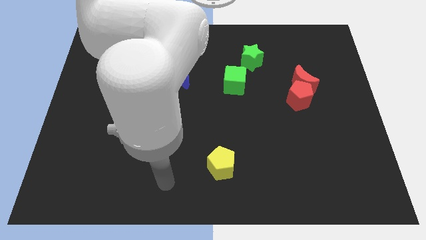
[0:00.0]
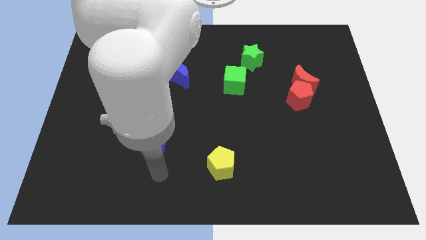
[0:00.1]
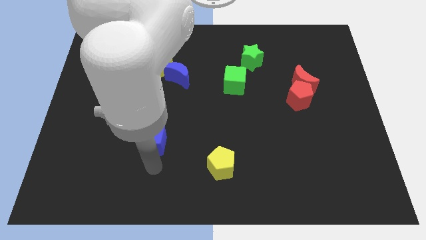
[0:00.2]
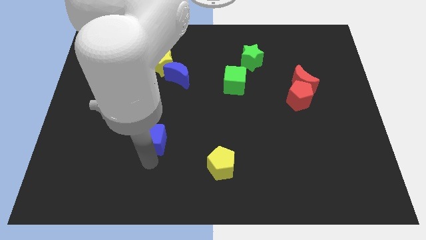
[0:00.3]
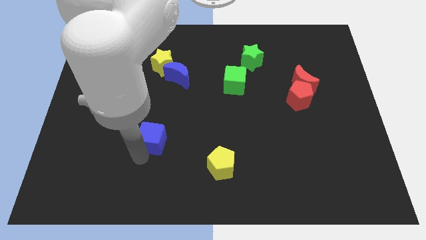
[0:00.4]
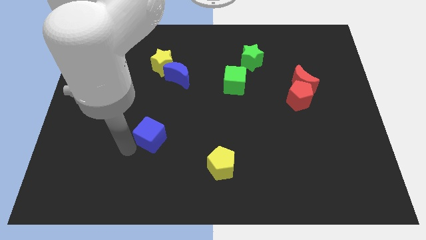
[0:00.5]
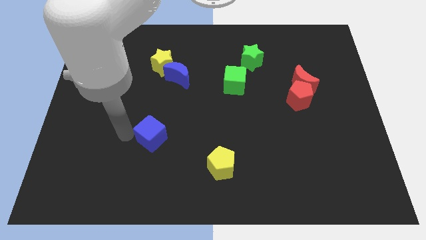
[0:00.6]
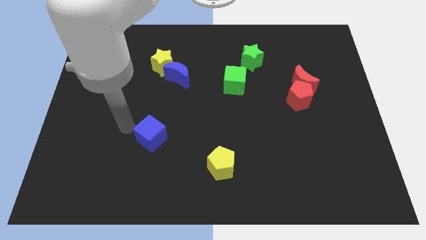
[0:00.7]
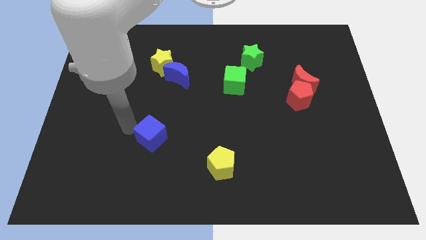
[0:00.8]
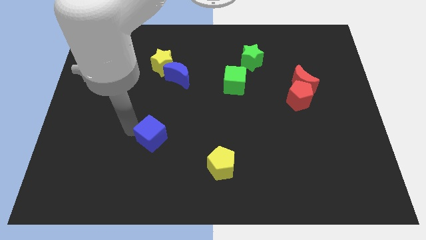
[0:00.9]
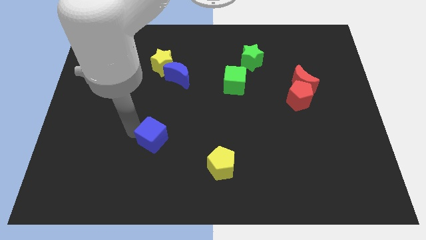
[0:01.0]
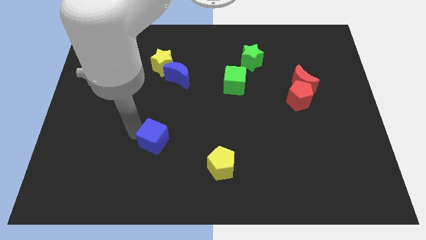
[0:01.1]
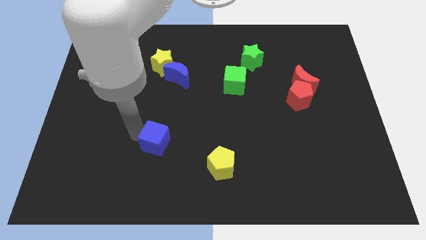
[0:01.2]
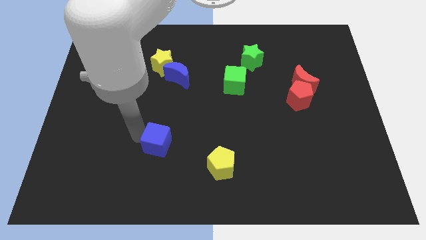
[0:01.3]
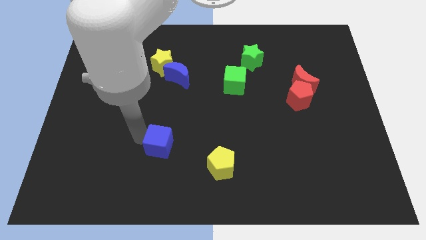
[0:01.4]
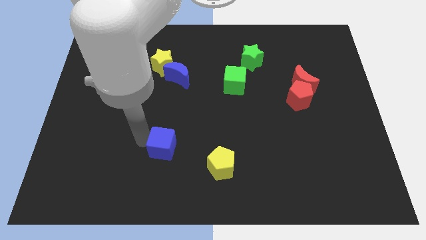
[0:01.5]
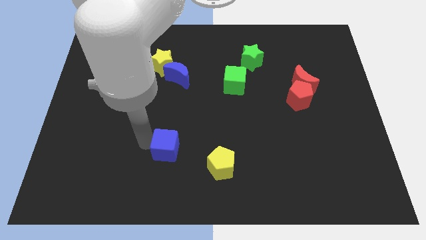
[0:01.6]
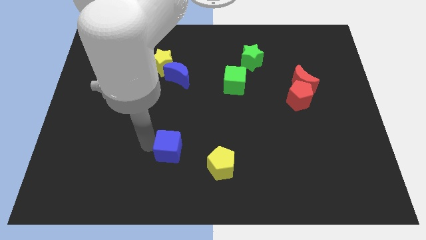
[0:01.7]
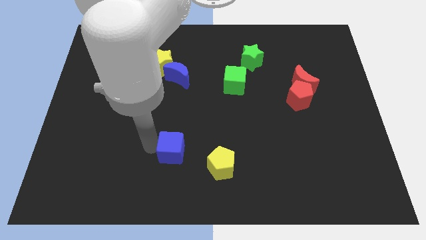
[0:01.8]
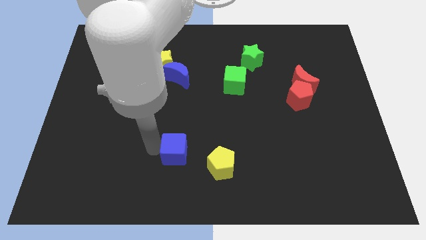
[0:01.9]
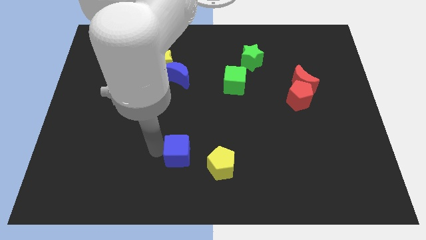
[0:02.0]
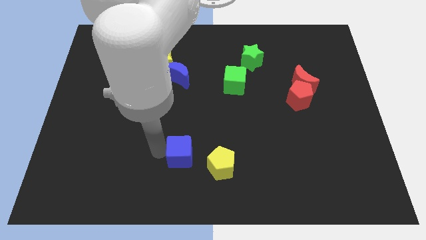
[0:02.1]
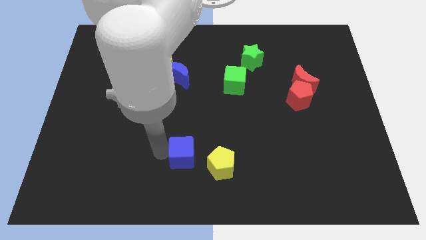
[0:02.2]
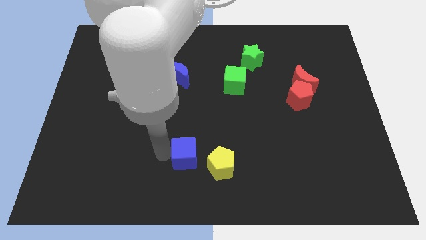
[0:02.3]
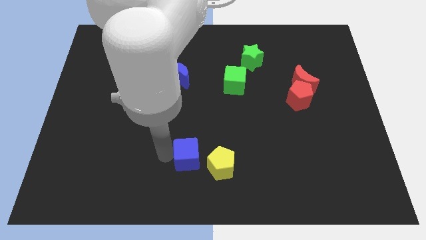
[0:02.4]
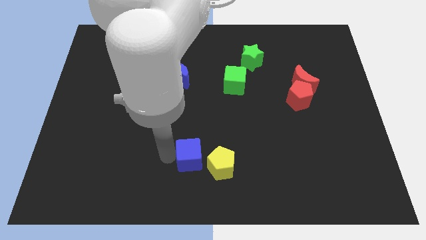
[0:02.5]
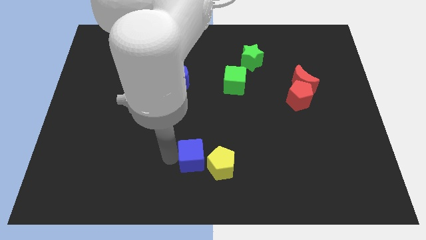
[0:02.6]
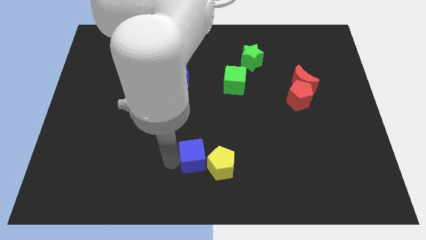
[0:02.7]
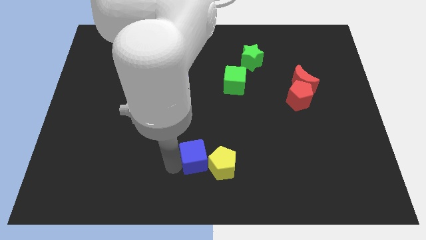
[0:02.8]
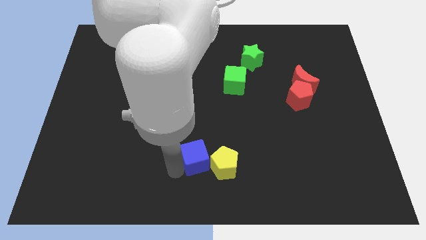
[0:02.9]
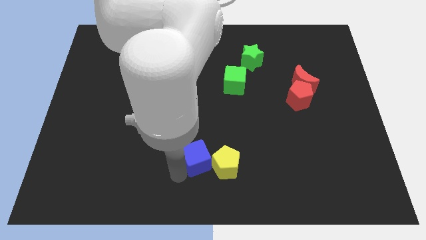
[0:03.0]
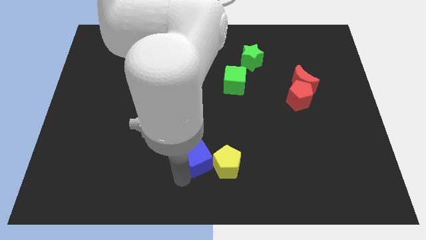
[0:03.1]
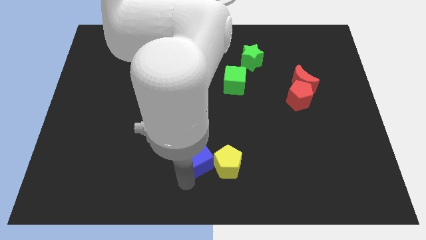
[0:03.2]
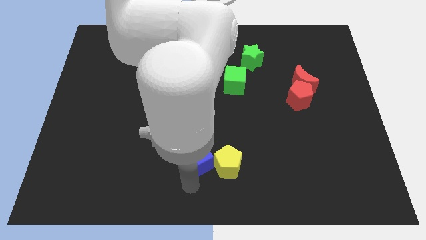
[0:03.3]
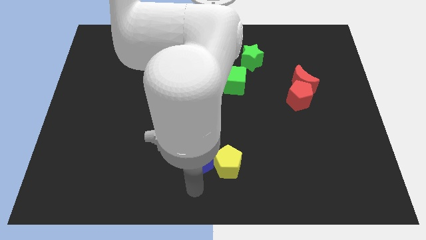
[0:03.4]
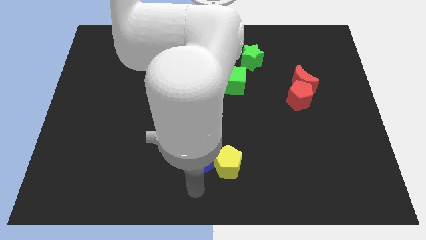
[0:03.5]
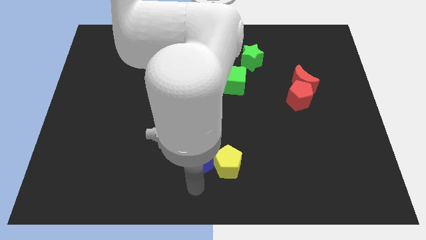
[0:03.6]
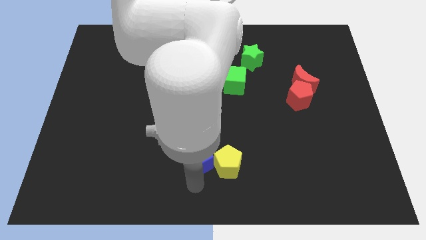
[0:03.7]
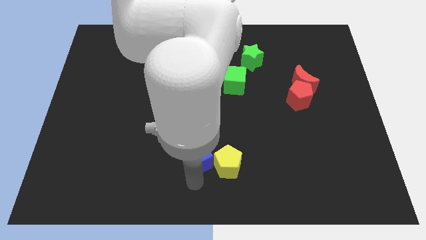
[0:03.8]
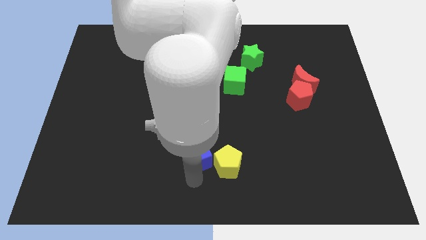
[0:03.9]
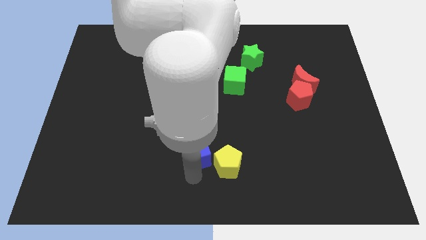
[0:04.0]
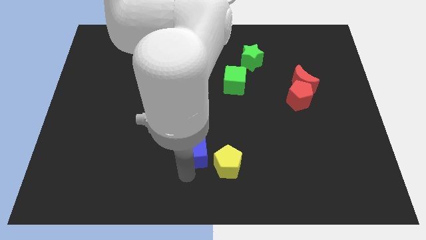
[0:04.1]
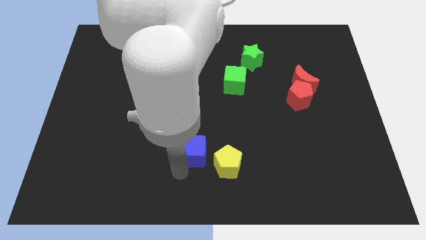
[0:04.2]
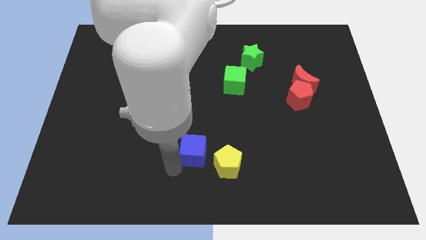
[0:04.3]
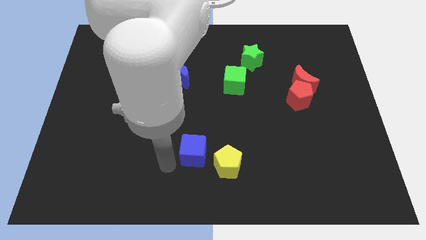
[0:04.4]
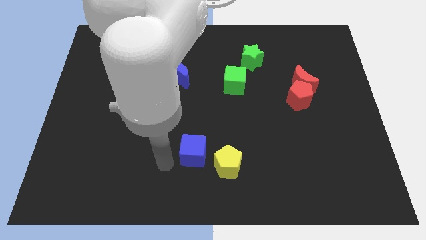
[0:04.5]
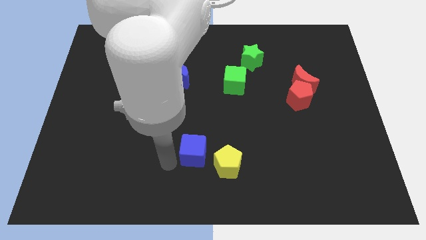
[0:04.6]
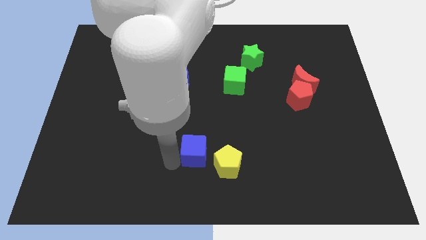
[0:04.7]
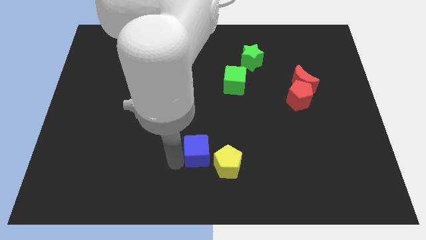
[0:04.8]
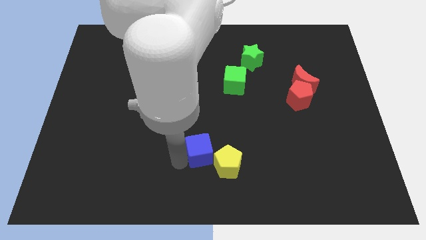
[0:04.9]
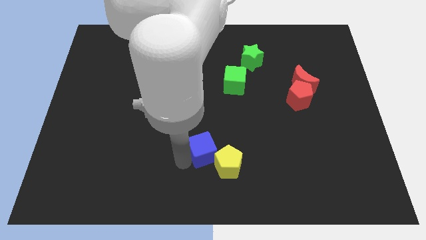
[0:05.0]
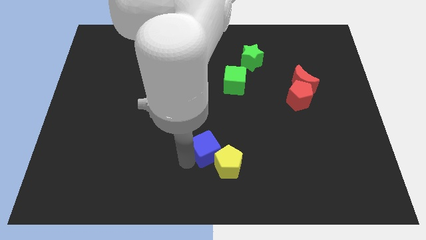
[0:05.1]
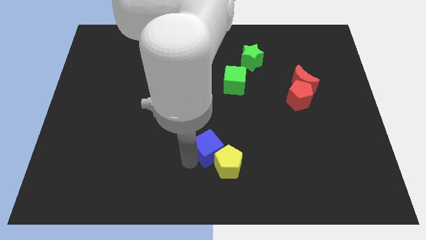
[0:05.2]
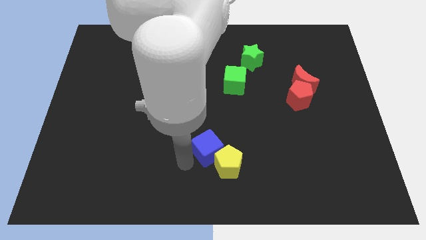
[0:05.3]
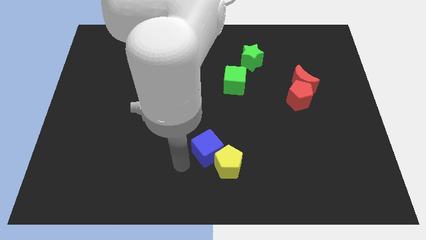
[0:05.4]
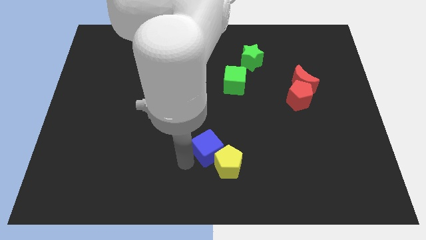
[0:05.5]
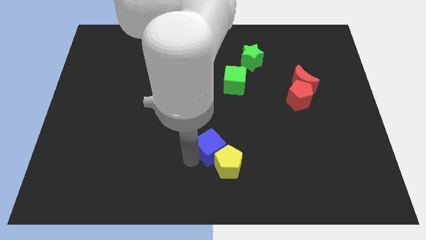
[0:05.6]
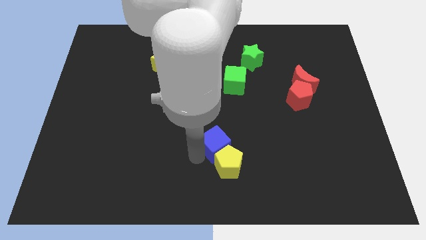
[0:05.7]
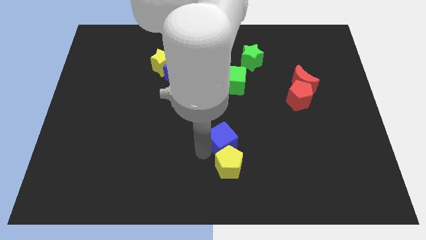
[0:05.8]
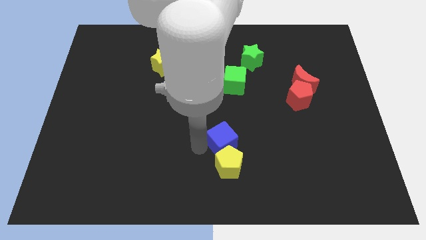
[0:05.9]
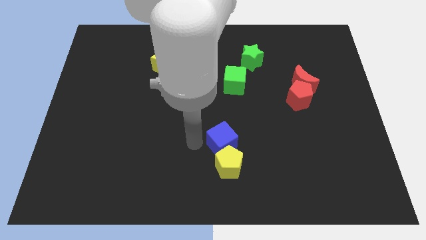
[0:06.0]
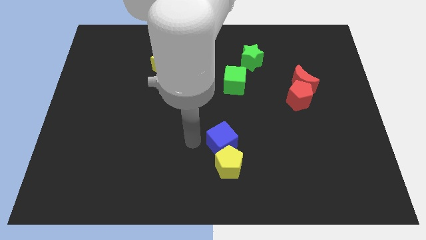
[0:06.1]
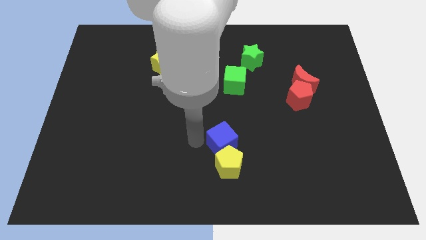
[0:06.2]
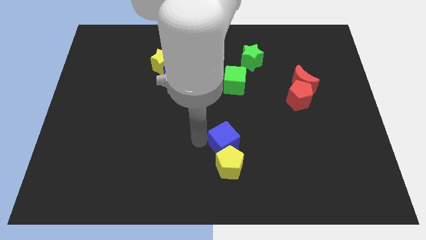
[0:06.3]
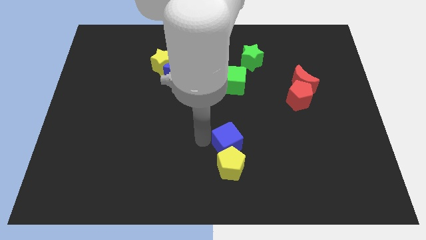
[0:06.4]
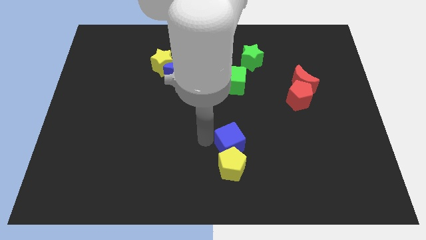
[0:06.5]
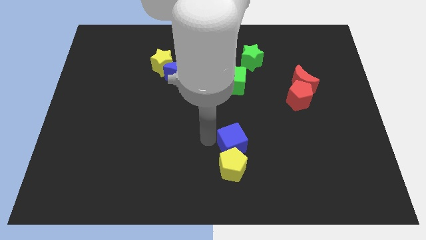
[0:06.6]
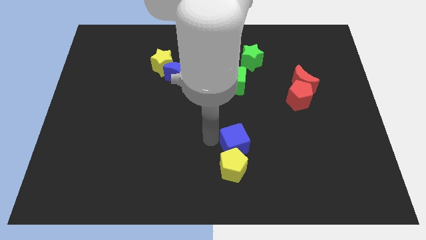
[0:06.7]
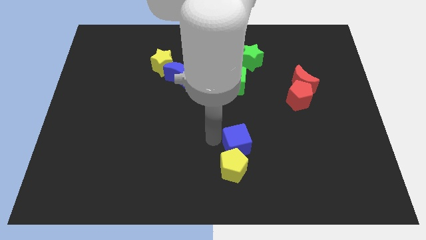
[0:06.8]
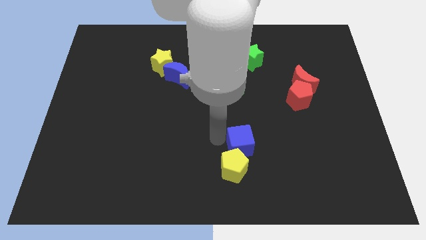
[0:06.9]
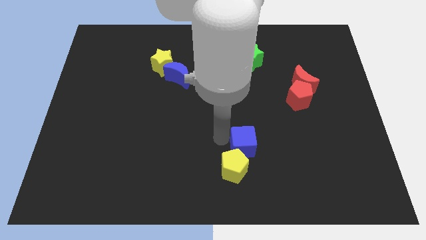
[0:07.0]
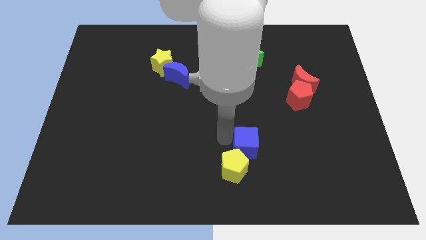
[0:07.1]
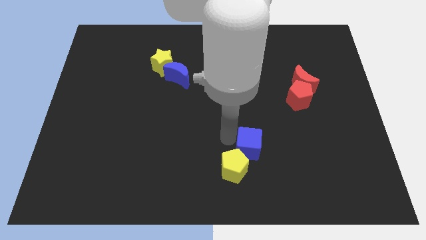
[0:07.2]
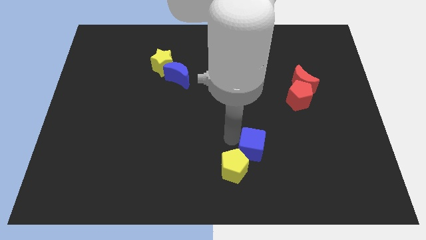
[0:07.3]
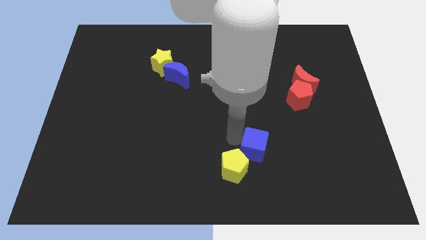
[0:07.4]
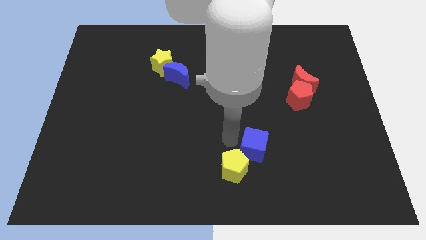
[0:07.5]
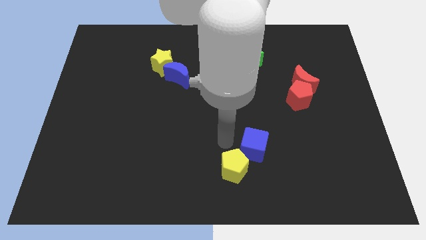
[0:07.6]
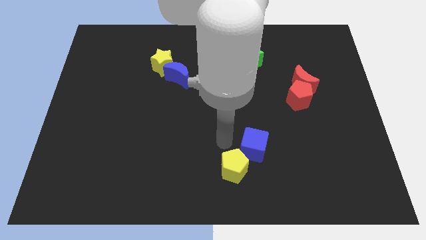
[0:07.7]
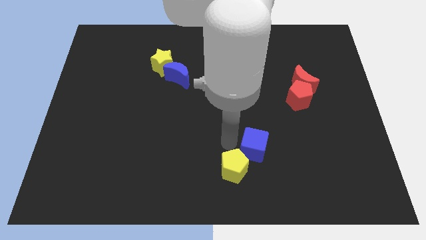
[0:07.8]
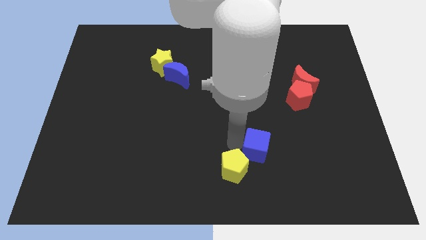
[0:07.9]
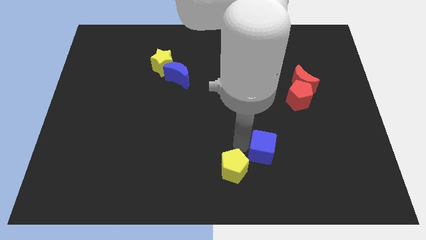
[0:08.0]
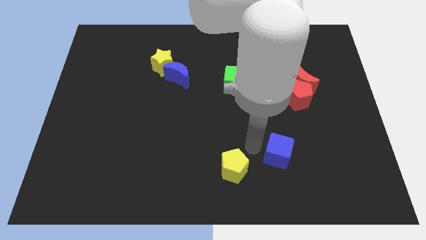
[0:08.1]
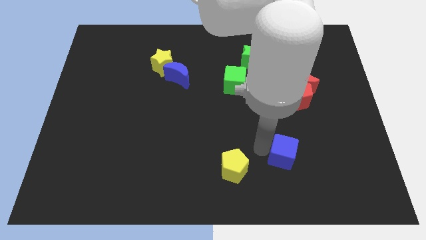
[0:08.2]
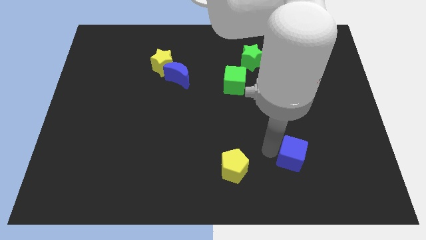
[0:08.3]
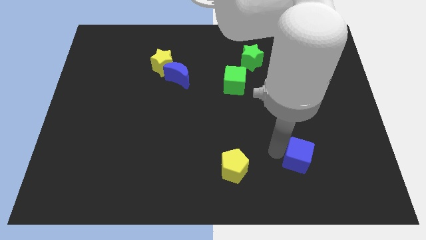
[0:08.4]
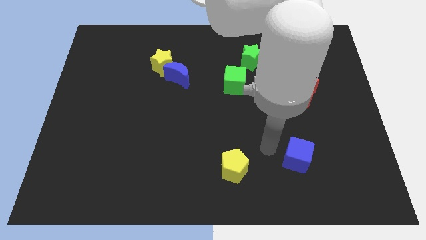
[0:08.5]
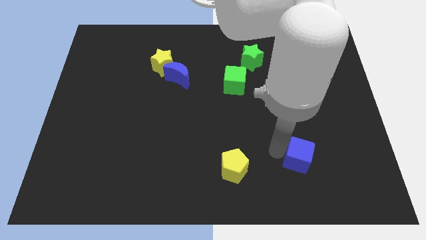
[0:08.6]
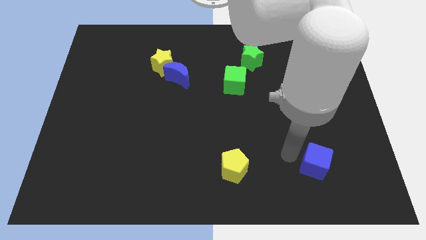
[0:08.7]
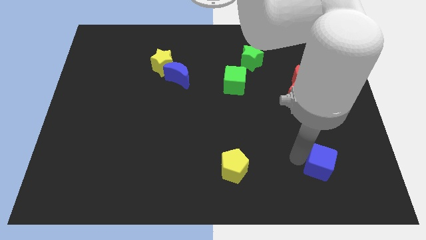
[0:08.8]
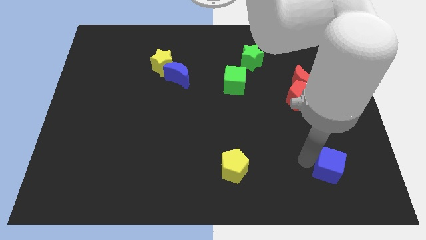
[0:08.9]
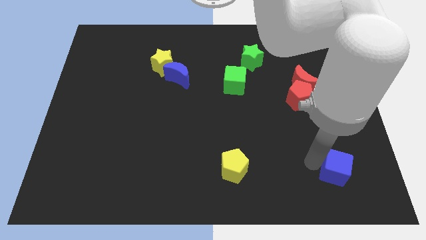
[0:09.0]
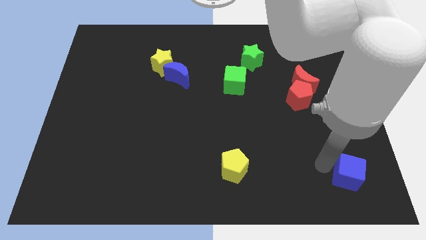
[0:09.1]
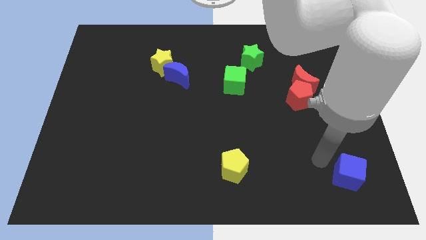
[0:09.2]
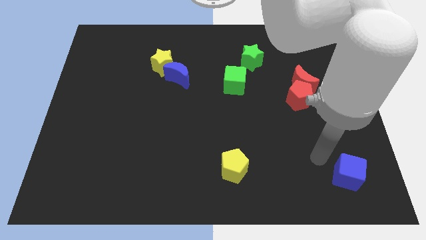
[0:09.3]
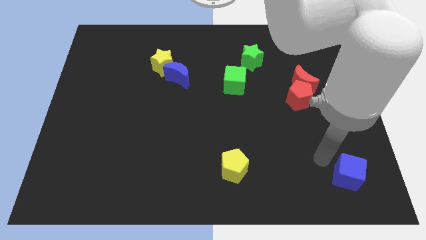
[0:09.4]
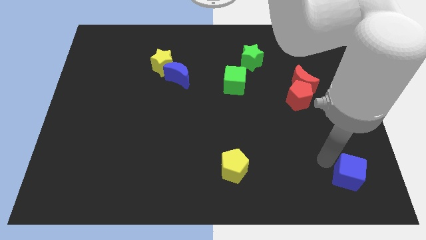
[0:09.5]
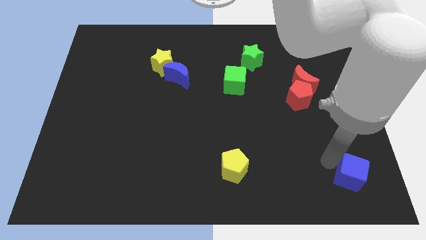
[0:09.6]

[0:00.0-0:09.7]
move the blue cube to the bottom right of the board
